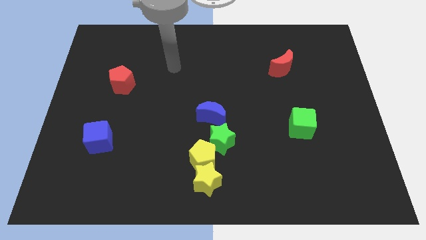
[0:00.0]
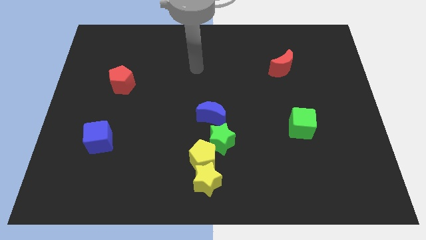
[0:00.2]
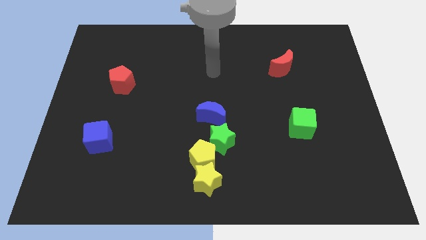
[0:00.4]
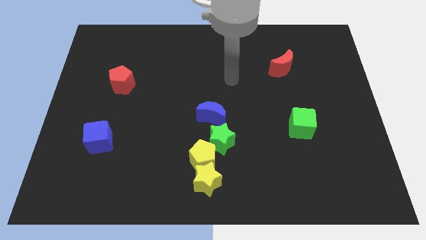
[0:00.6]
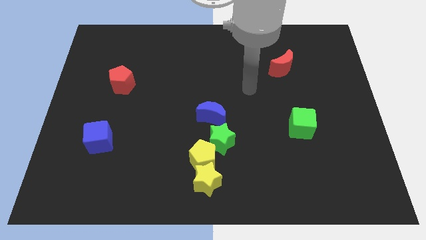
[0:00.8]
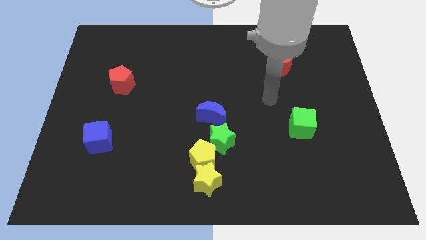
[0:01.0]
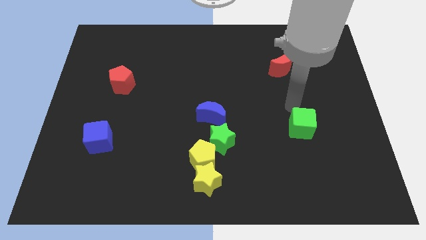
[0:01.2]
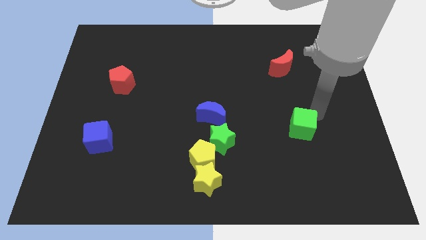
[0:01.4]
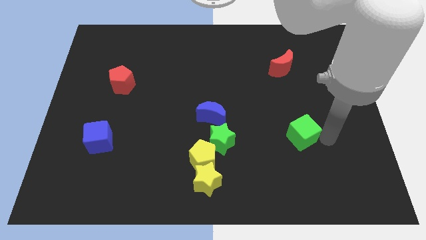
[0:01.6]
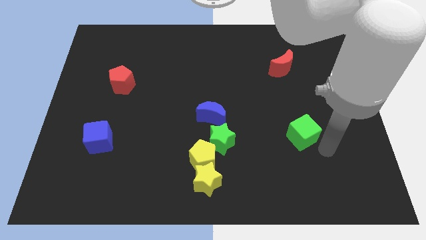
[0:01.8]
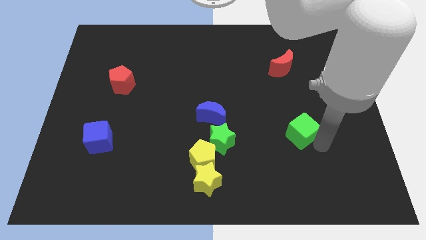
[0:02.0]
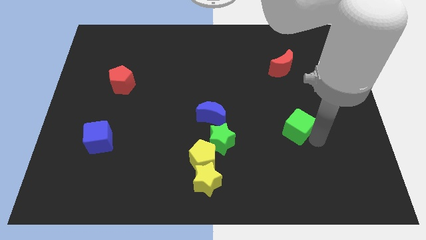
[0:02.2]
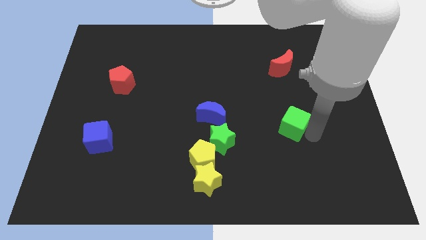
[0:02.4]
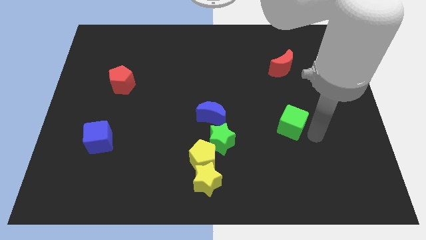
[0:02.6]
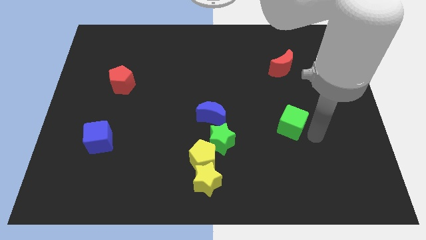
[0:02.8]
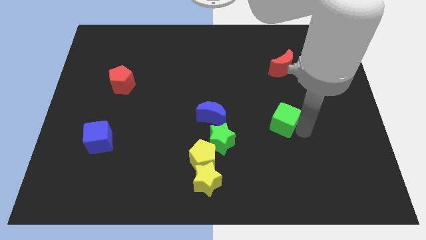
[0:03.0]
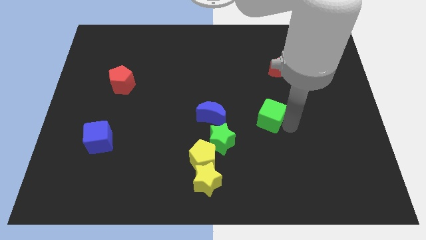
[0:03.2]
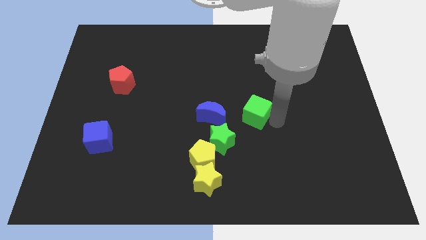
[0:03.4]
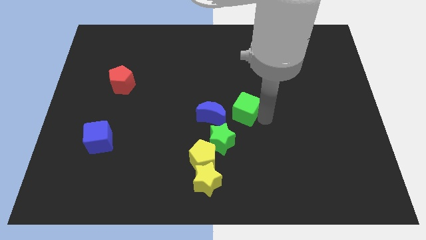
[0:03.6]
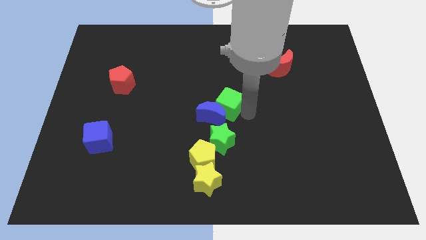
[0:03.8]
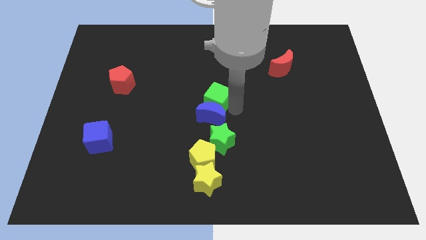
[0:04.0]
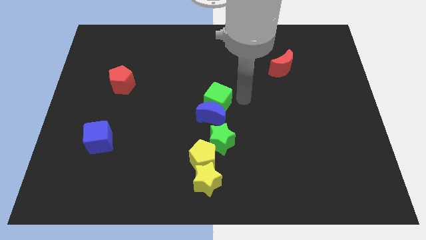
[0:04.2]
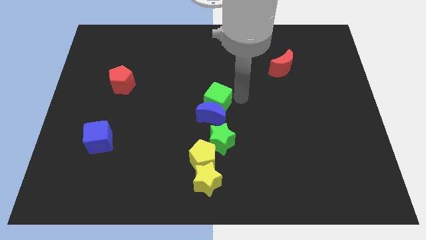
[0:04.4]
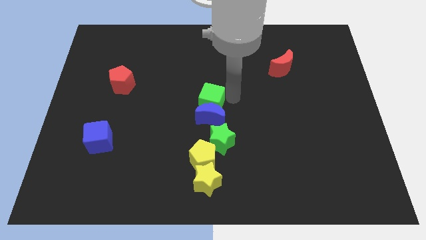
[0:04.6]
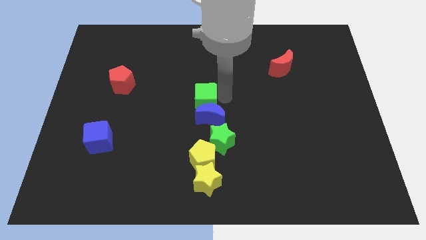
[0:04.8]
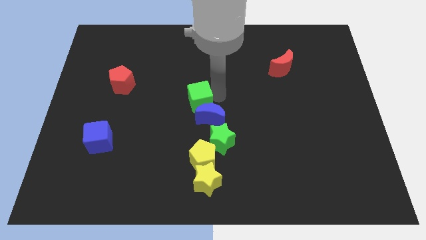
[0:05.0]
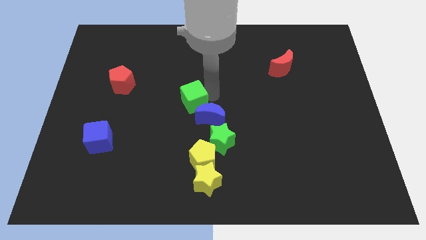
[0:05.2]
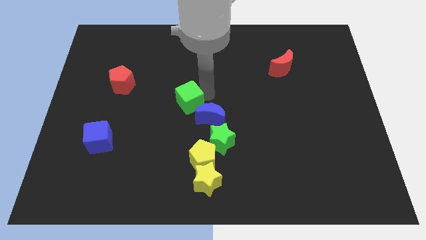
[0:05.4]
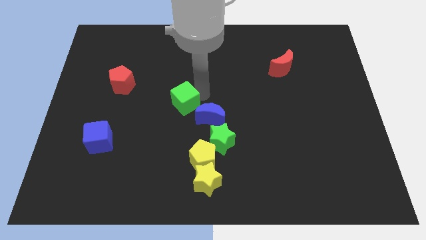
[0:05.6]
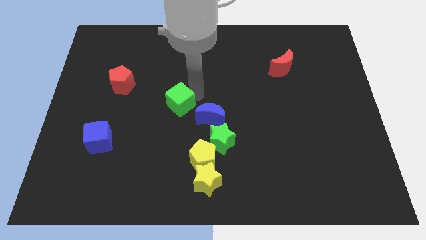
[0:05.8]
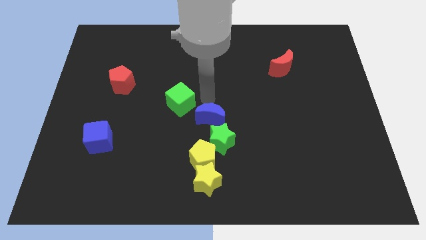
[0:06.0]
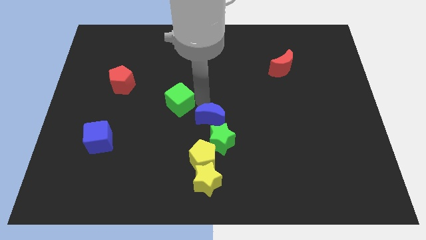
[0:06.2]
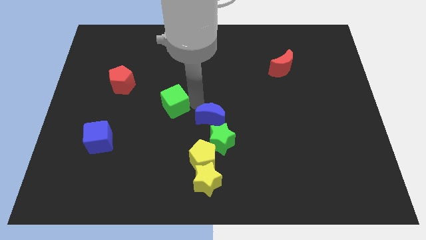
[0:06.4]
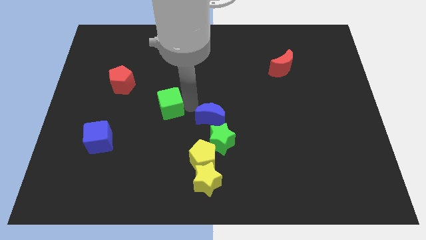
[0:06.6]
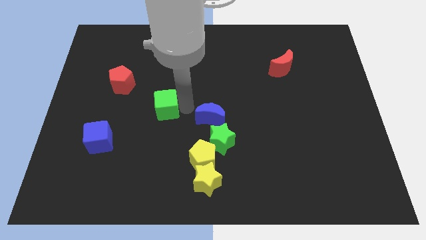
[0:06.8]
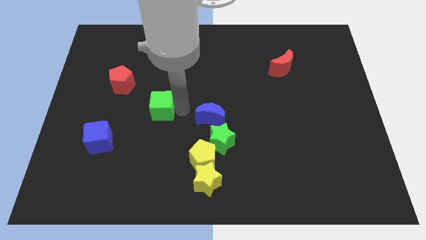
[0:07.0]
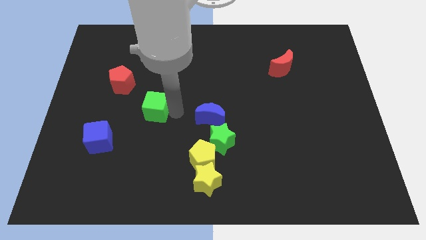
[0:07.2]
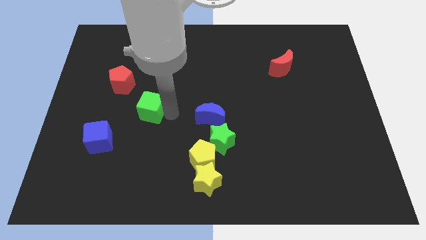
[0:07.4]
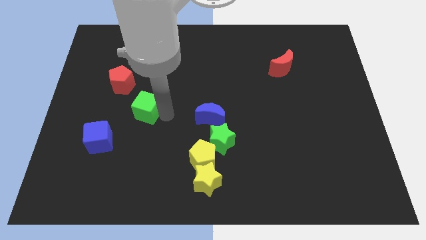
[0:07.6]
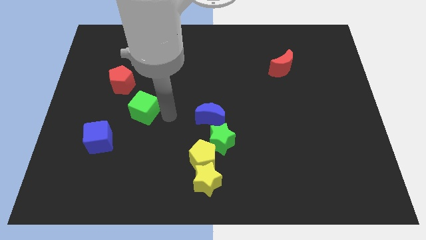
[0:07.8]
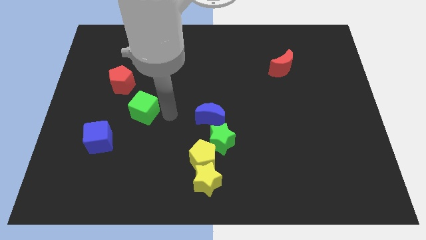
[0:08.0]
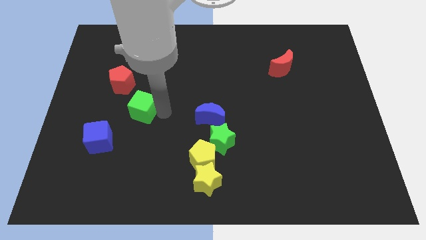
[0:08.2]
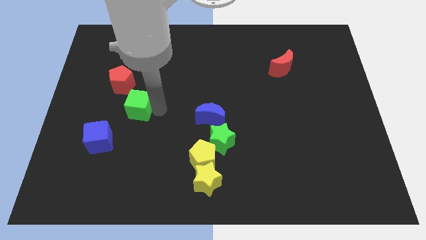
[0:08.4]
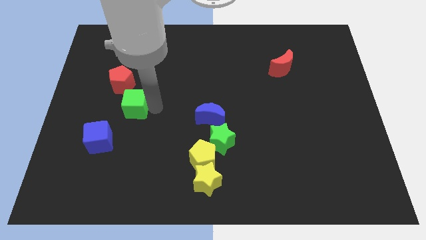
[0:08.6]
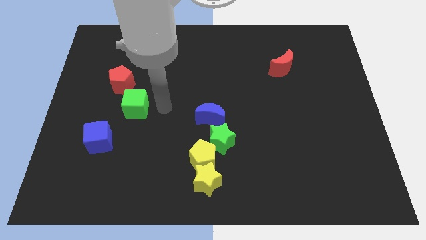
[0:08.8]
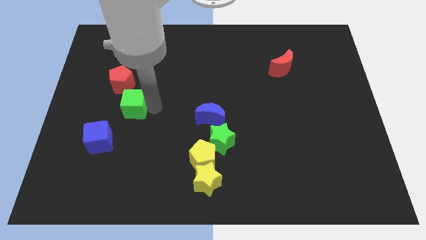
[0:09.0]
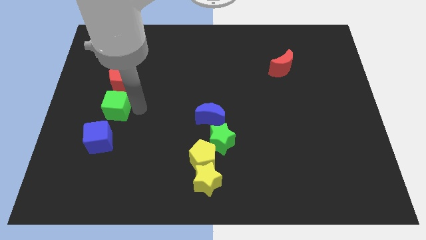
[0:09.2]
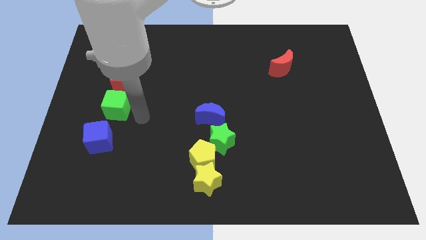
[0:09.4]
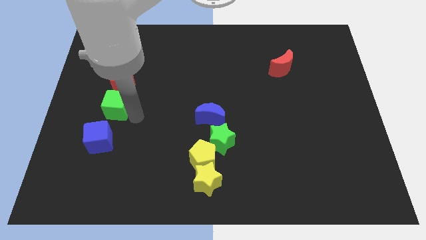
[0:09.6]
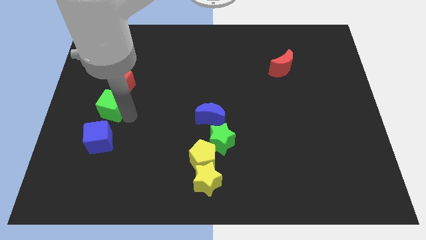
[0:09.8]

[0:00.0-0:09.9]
slide the green cube to the bottom left of the red pentagon

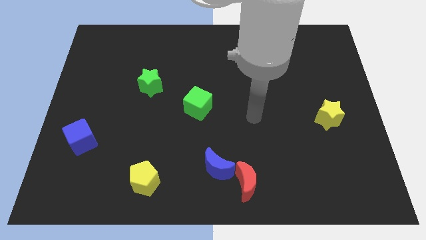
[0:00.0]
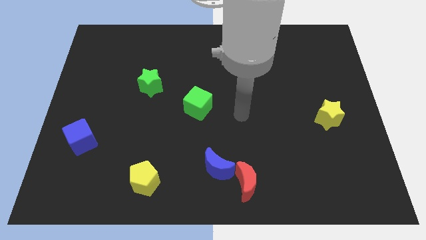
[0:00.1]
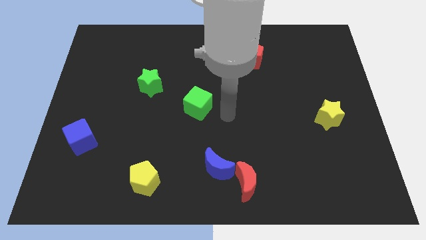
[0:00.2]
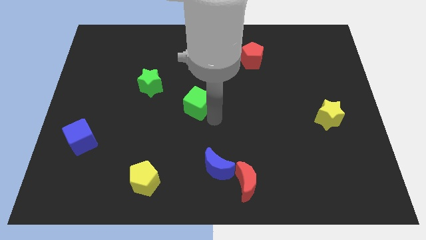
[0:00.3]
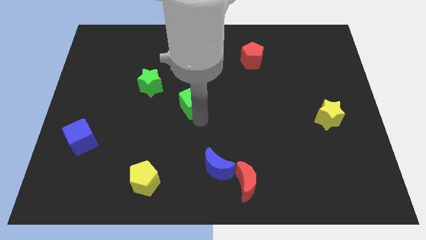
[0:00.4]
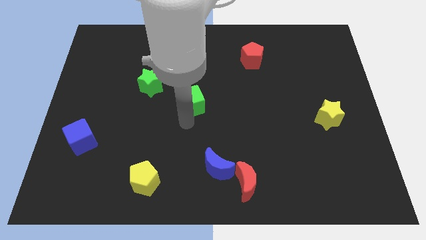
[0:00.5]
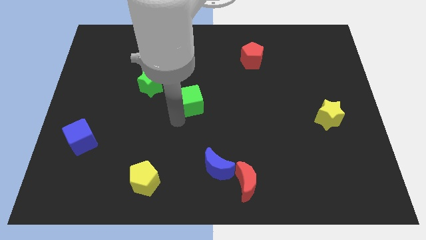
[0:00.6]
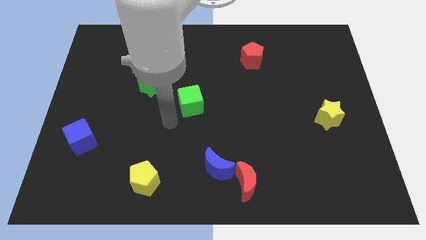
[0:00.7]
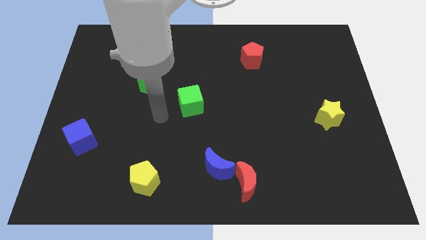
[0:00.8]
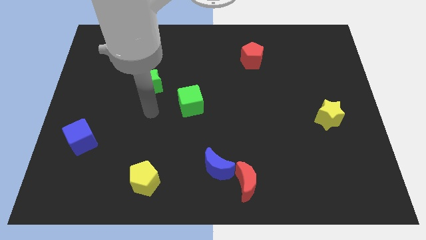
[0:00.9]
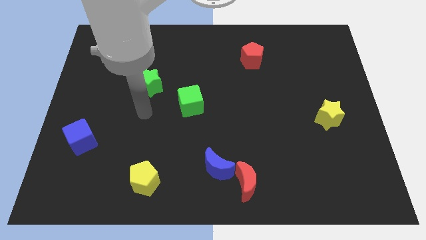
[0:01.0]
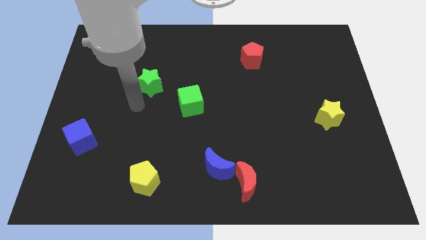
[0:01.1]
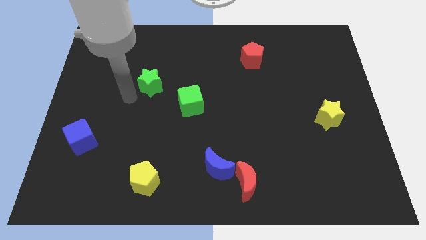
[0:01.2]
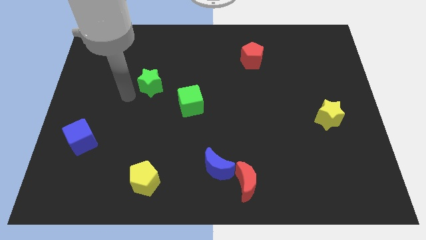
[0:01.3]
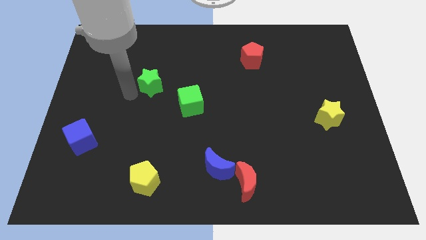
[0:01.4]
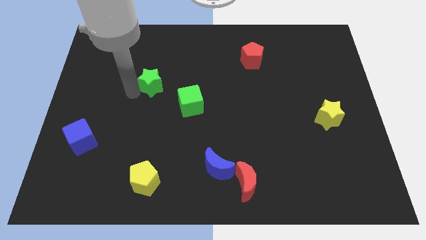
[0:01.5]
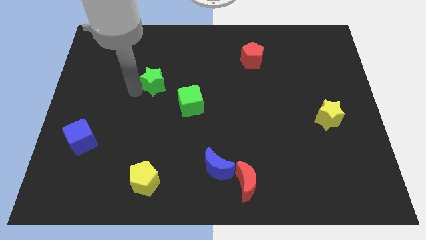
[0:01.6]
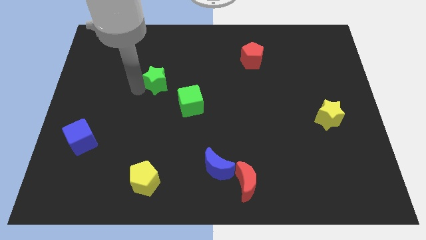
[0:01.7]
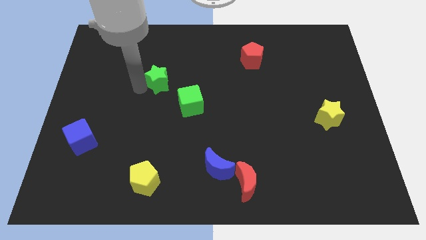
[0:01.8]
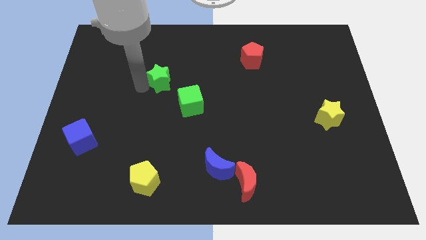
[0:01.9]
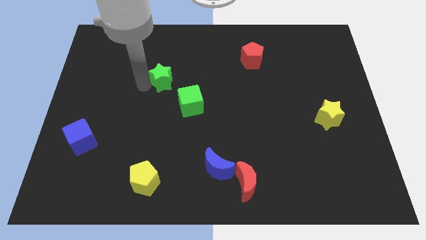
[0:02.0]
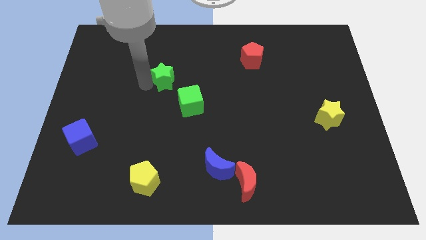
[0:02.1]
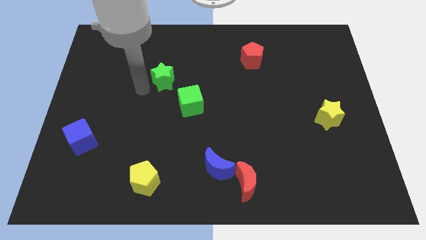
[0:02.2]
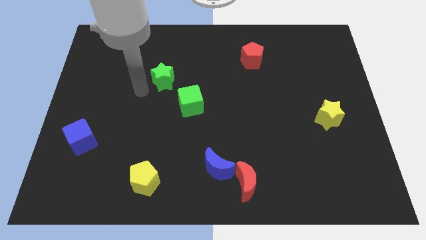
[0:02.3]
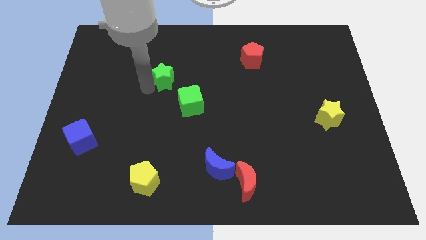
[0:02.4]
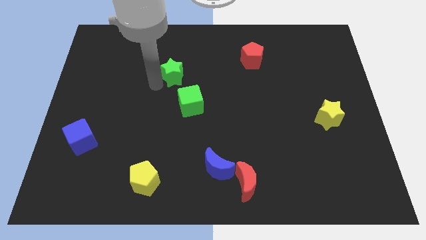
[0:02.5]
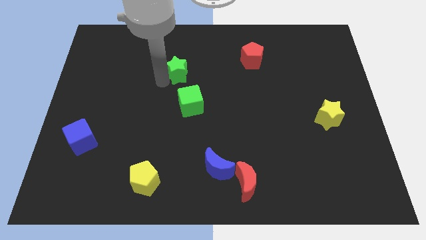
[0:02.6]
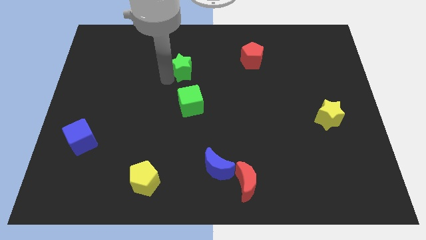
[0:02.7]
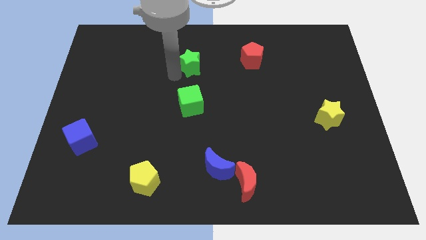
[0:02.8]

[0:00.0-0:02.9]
put the green star to the left of the red pentagon
